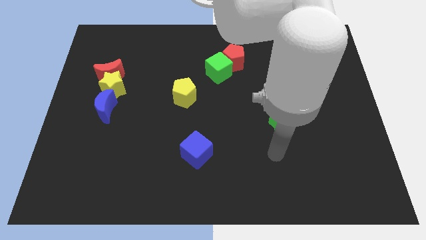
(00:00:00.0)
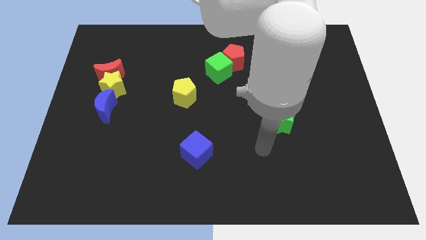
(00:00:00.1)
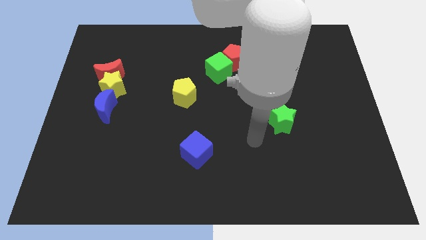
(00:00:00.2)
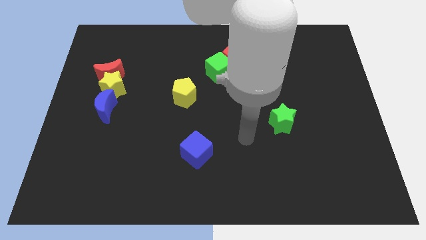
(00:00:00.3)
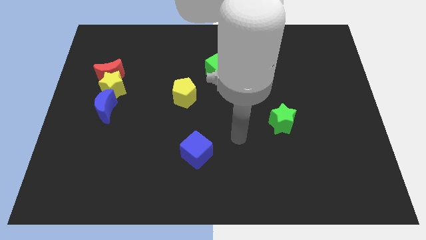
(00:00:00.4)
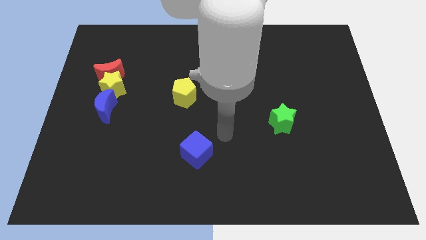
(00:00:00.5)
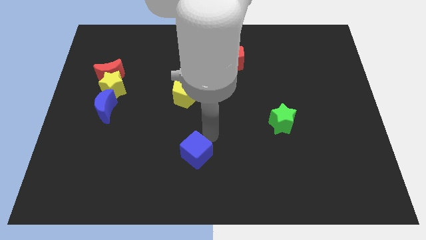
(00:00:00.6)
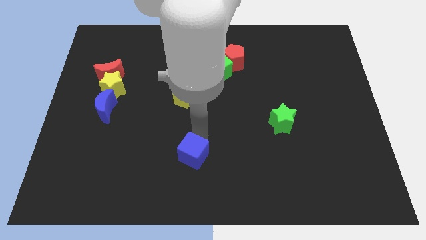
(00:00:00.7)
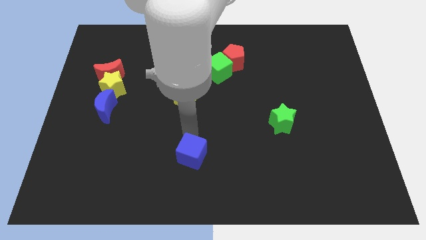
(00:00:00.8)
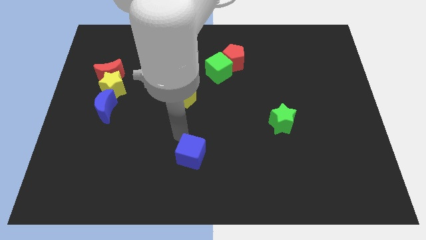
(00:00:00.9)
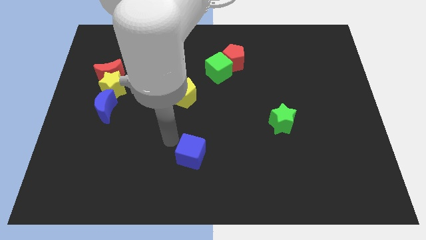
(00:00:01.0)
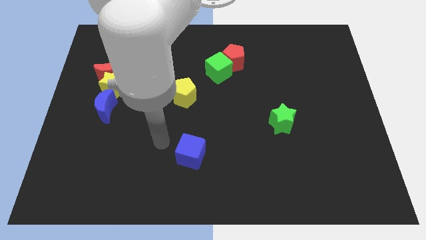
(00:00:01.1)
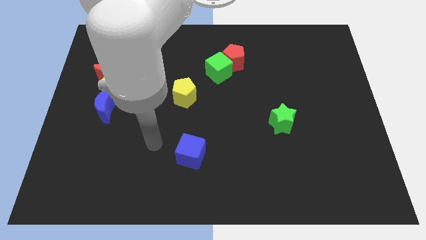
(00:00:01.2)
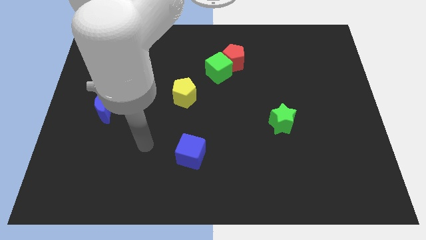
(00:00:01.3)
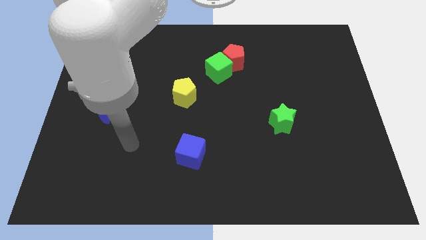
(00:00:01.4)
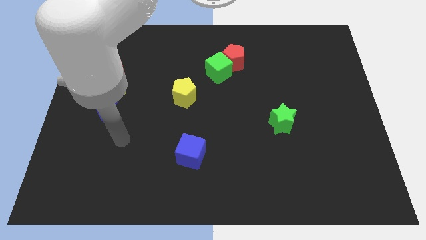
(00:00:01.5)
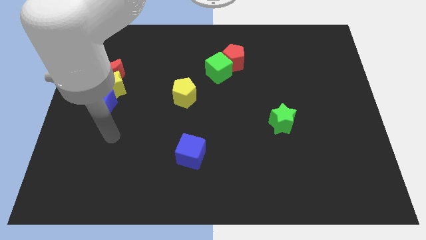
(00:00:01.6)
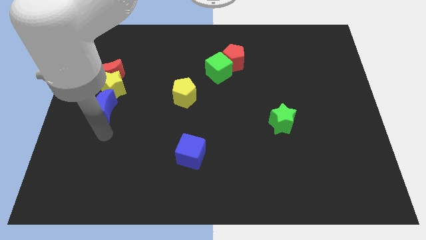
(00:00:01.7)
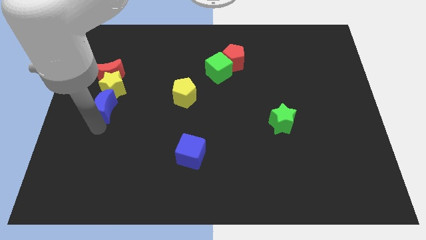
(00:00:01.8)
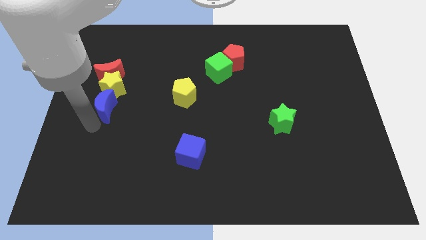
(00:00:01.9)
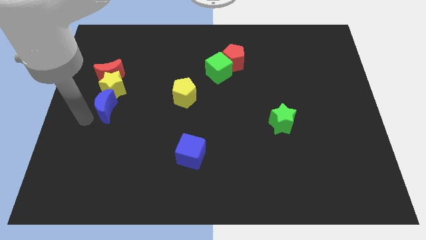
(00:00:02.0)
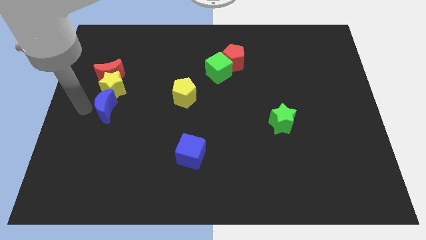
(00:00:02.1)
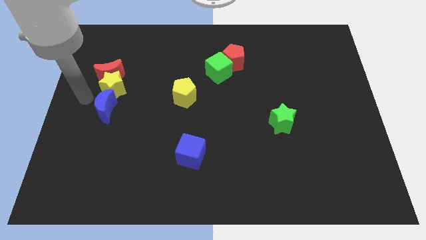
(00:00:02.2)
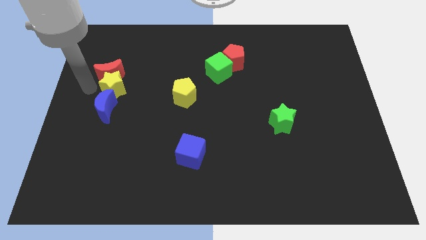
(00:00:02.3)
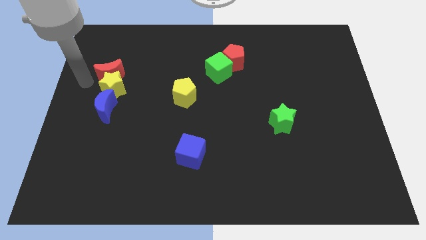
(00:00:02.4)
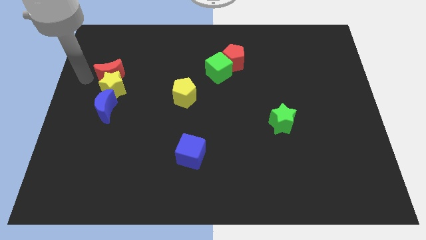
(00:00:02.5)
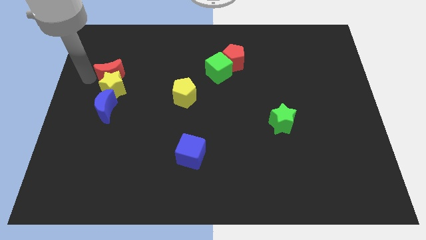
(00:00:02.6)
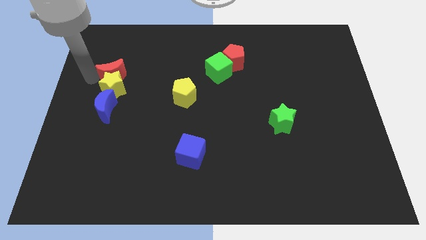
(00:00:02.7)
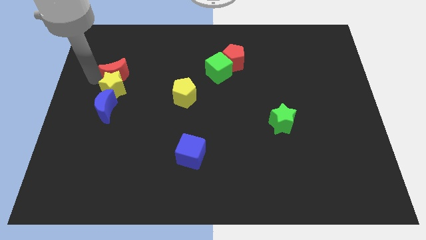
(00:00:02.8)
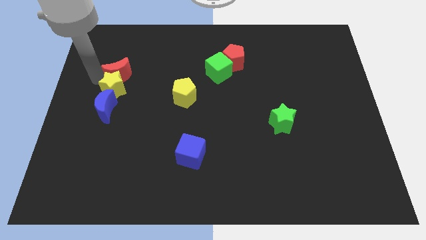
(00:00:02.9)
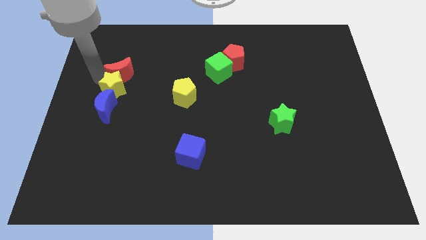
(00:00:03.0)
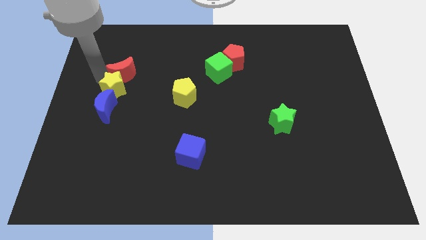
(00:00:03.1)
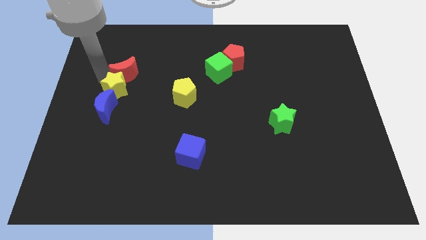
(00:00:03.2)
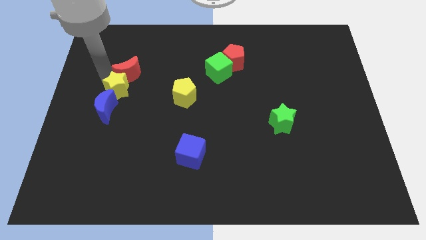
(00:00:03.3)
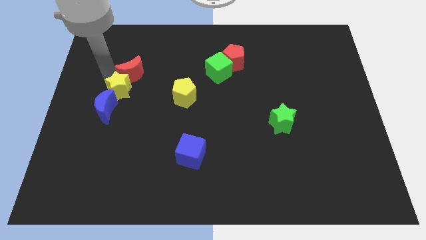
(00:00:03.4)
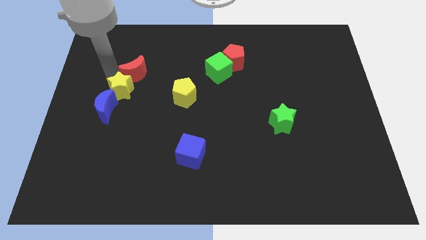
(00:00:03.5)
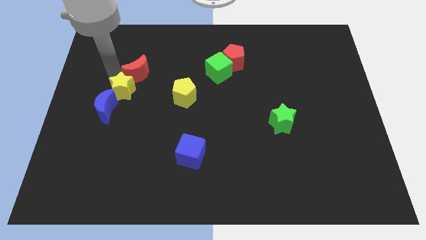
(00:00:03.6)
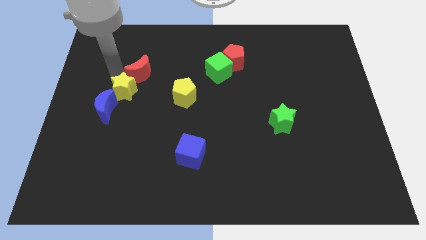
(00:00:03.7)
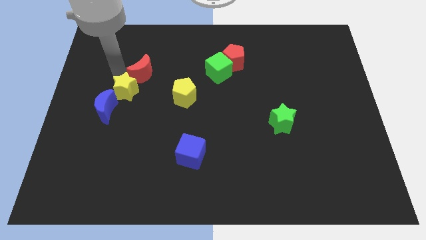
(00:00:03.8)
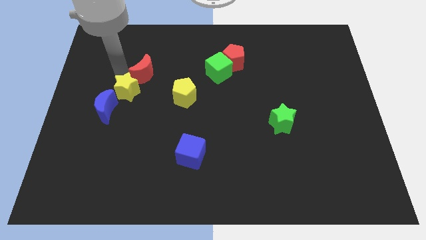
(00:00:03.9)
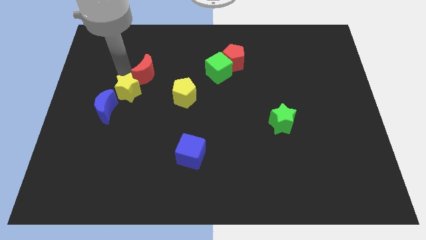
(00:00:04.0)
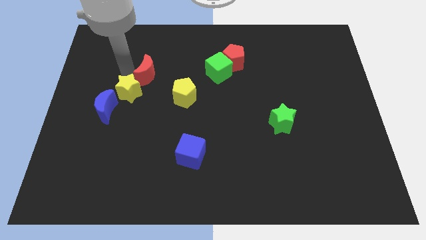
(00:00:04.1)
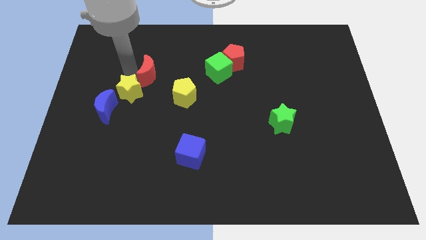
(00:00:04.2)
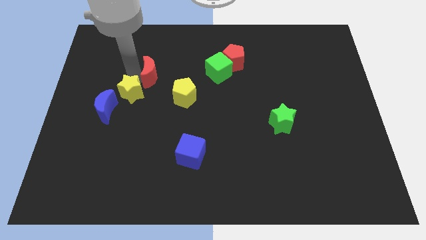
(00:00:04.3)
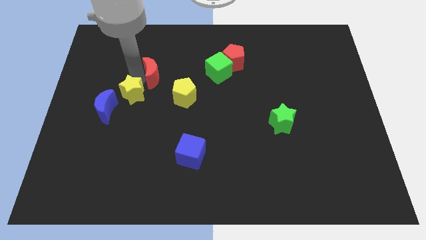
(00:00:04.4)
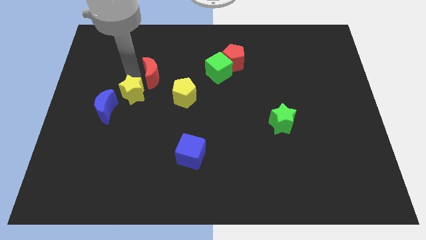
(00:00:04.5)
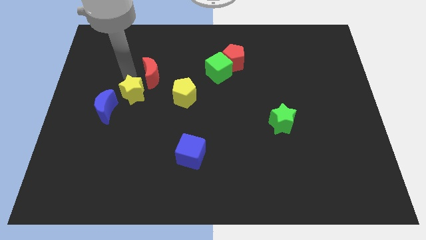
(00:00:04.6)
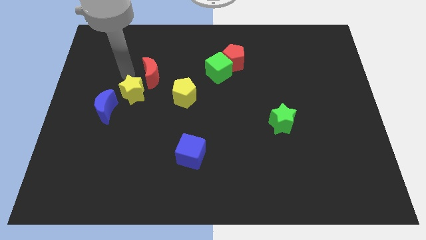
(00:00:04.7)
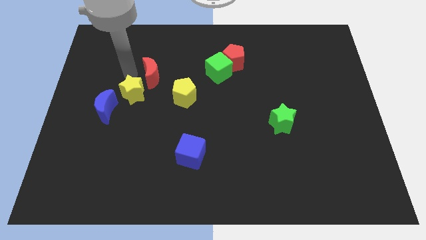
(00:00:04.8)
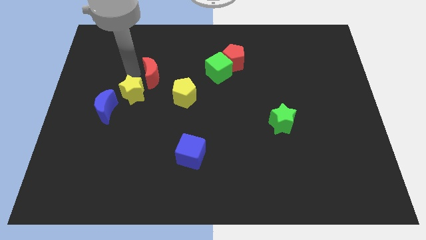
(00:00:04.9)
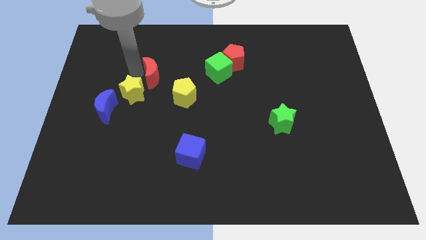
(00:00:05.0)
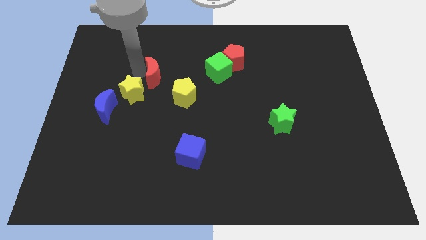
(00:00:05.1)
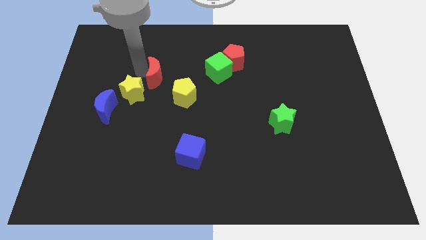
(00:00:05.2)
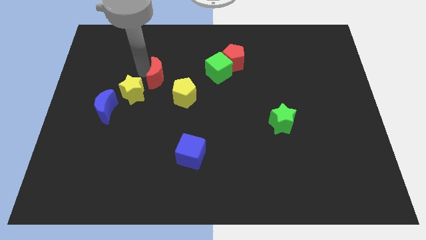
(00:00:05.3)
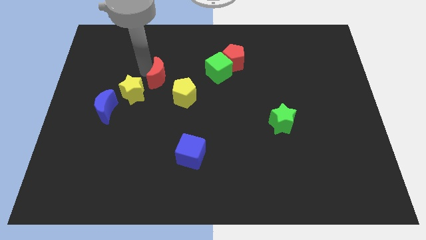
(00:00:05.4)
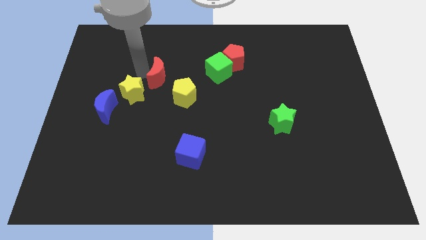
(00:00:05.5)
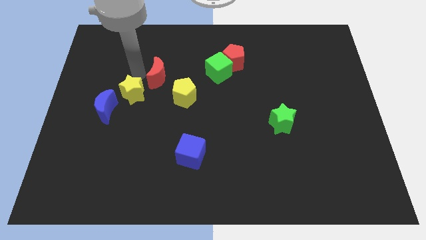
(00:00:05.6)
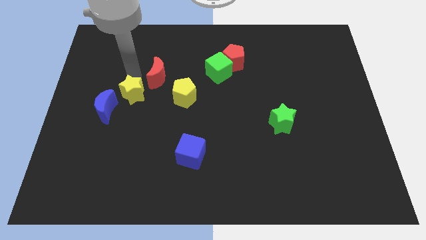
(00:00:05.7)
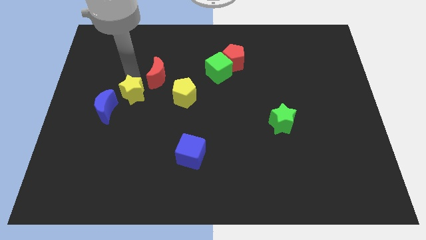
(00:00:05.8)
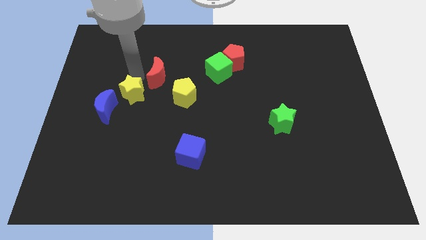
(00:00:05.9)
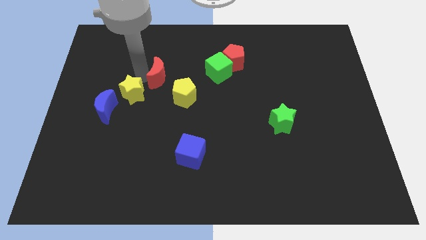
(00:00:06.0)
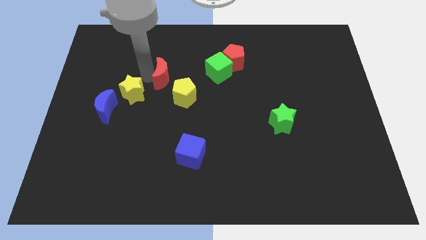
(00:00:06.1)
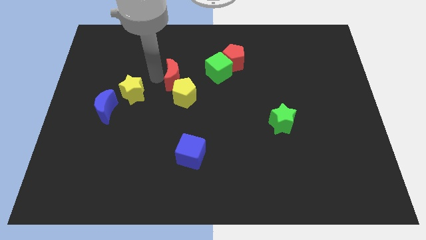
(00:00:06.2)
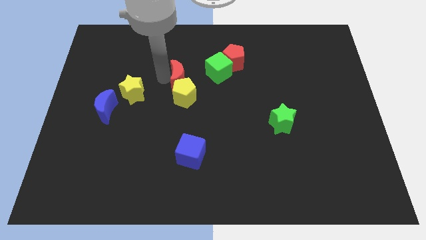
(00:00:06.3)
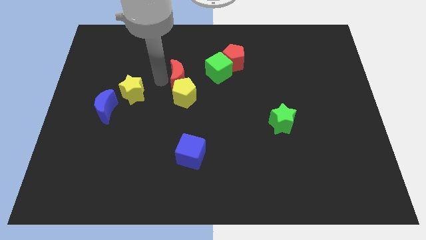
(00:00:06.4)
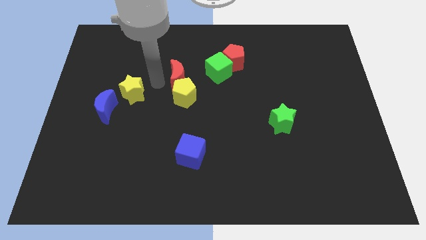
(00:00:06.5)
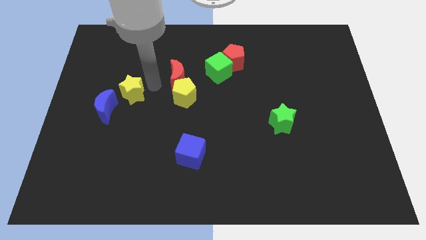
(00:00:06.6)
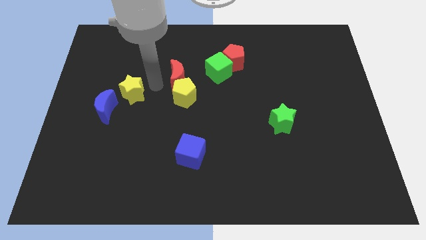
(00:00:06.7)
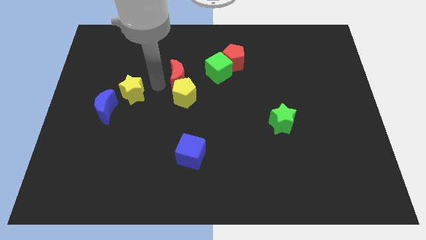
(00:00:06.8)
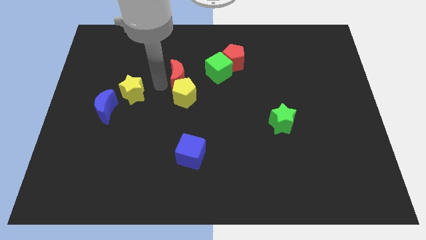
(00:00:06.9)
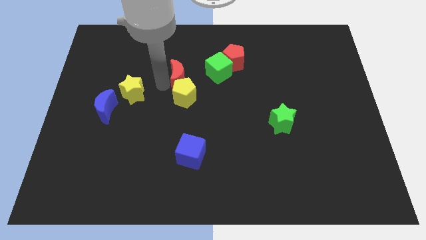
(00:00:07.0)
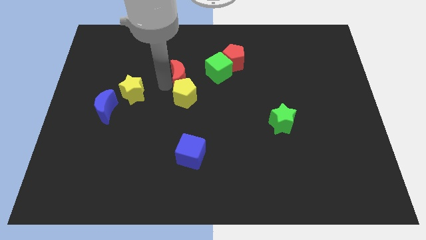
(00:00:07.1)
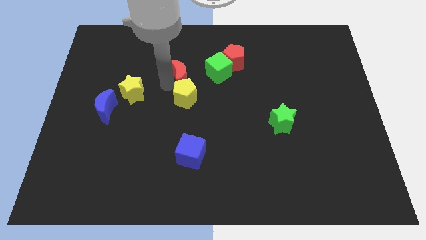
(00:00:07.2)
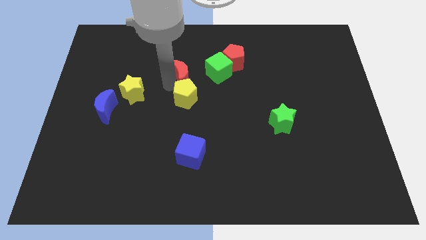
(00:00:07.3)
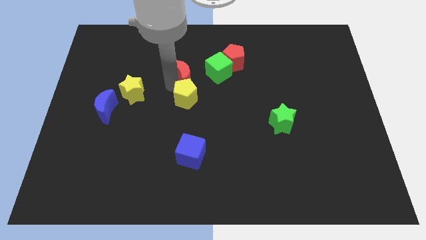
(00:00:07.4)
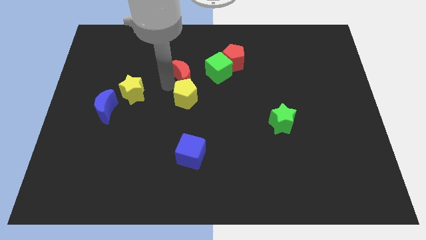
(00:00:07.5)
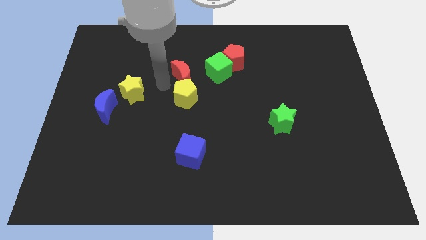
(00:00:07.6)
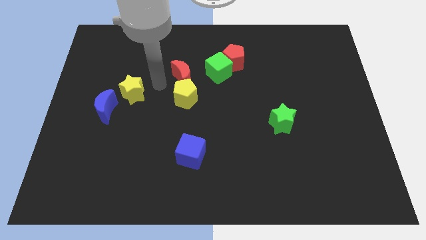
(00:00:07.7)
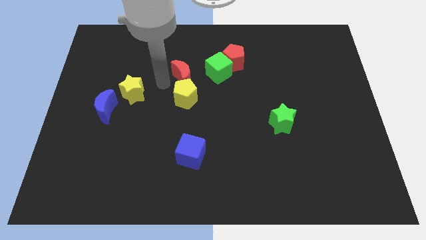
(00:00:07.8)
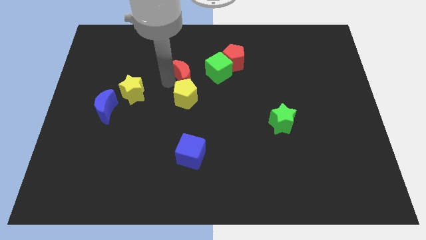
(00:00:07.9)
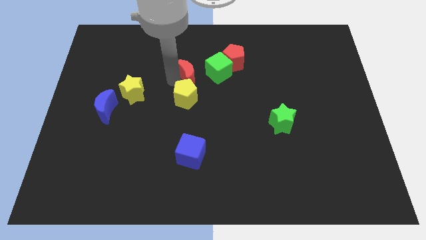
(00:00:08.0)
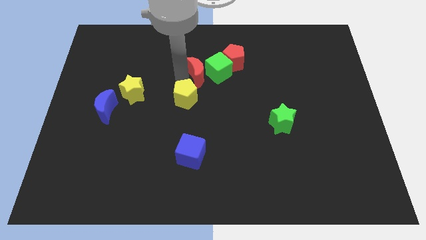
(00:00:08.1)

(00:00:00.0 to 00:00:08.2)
put the red moon to the green cube
